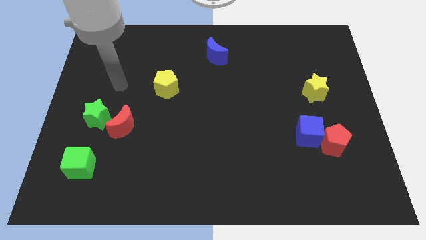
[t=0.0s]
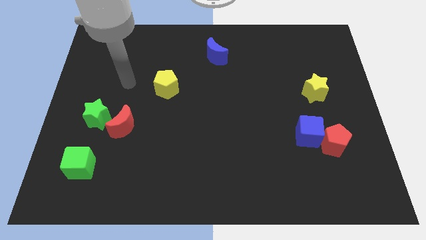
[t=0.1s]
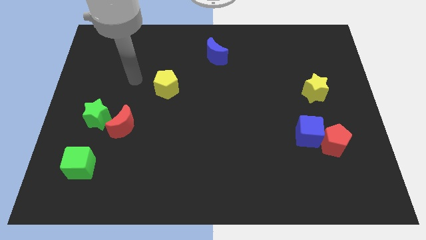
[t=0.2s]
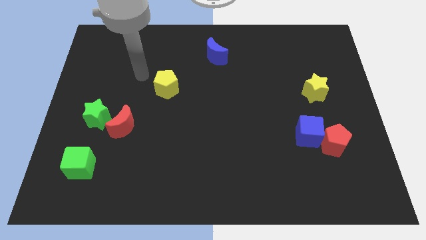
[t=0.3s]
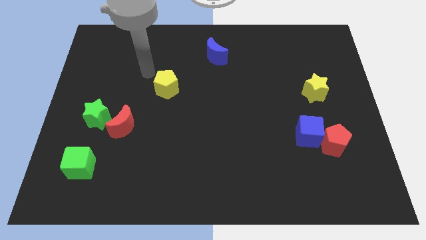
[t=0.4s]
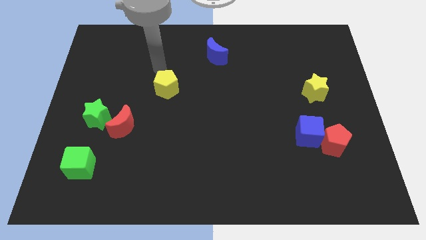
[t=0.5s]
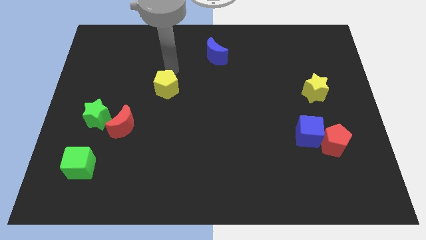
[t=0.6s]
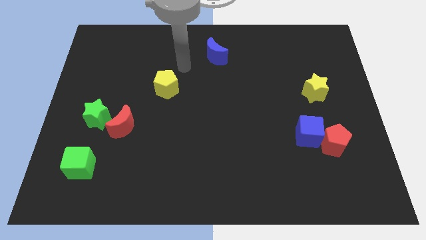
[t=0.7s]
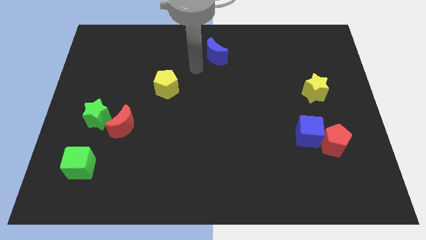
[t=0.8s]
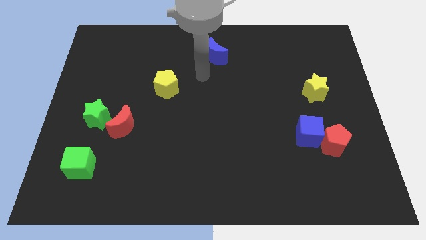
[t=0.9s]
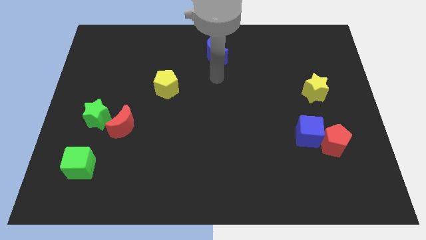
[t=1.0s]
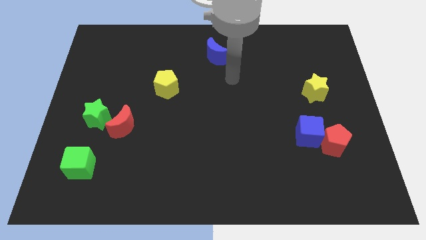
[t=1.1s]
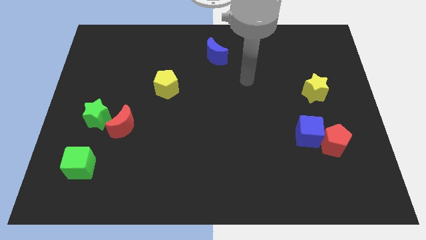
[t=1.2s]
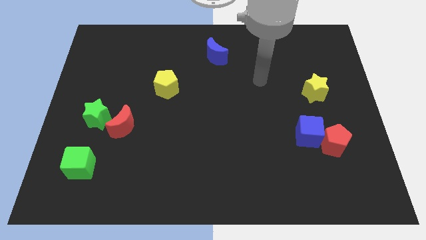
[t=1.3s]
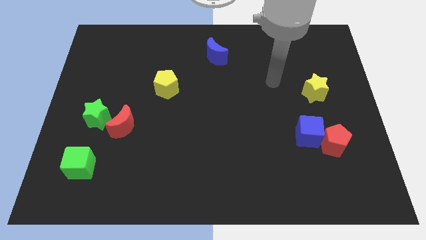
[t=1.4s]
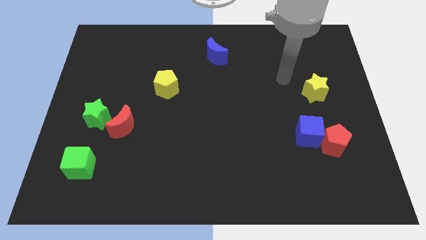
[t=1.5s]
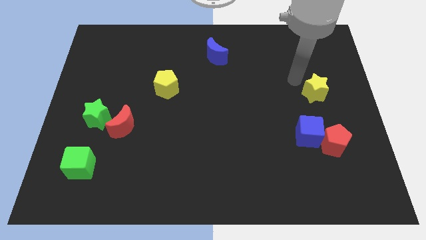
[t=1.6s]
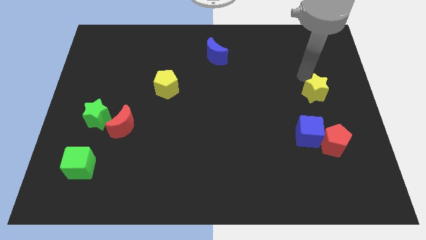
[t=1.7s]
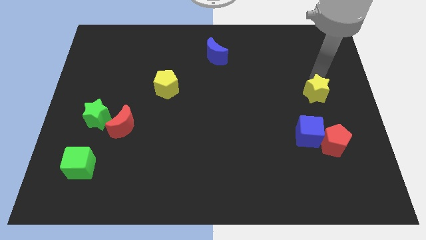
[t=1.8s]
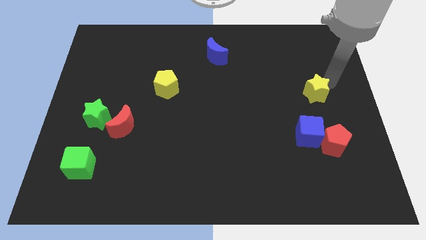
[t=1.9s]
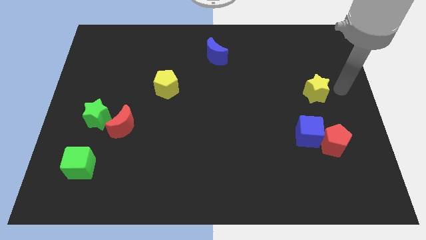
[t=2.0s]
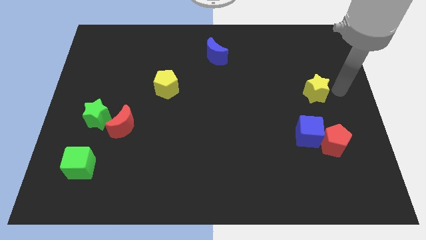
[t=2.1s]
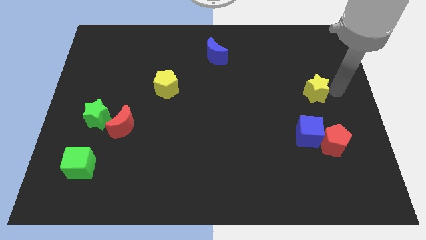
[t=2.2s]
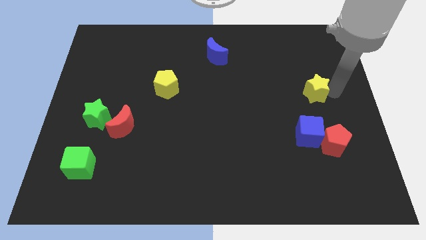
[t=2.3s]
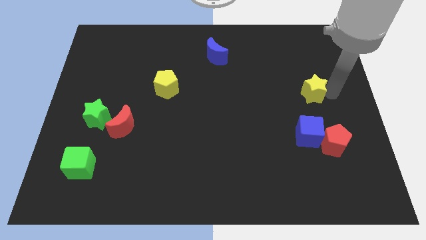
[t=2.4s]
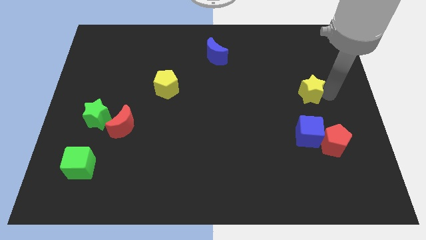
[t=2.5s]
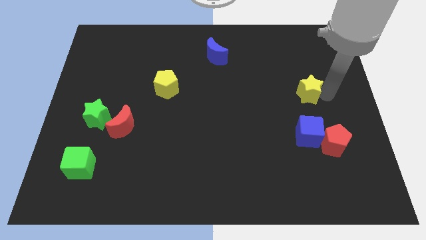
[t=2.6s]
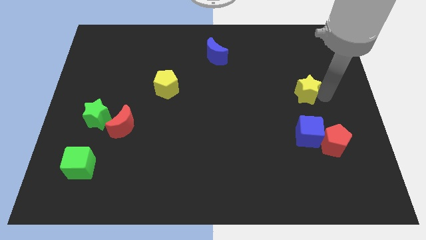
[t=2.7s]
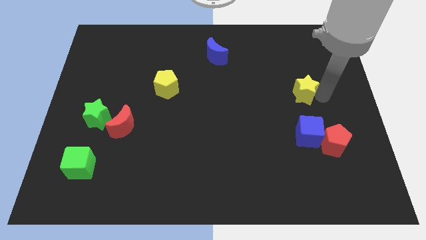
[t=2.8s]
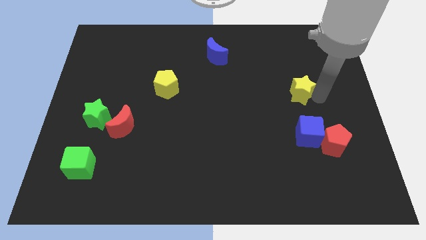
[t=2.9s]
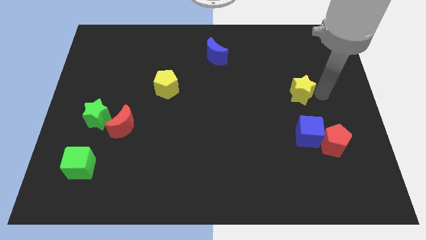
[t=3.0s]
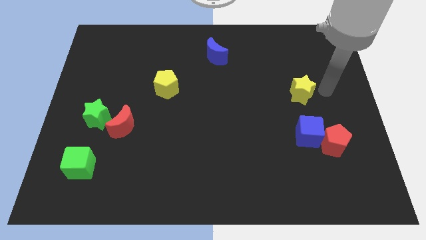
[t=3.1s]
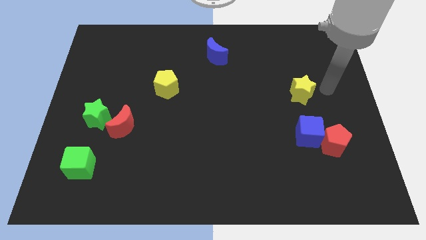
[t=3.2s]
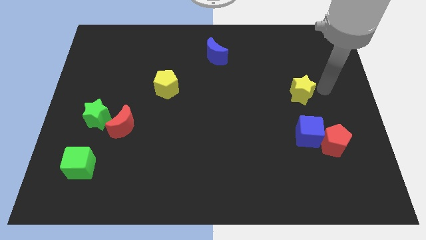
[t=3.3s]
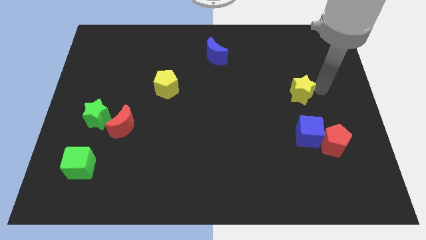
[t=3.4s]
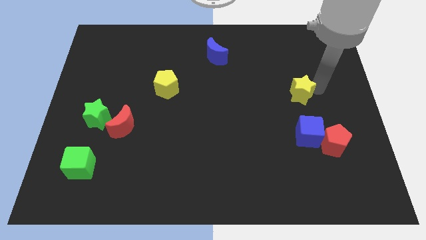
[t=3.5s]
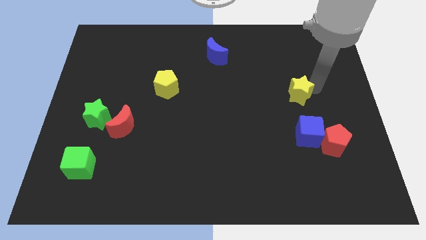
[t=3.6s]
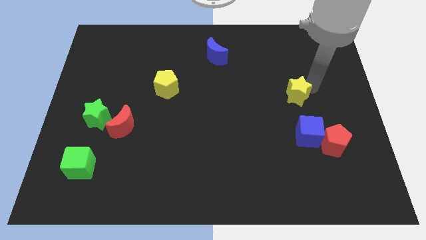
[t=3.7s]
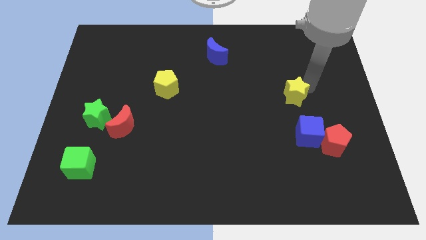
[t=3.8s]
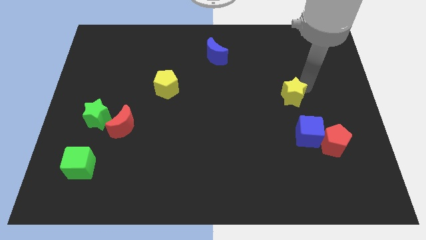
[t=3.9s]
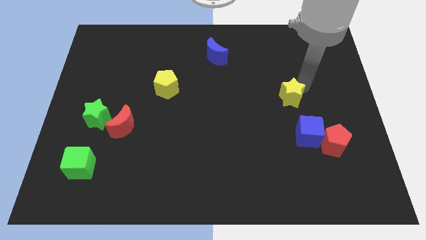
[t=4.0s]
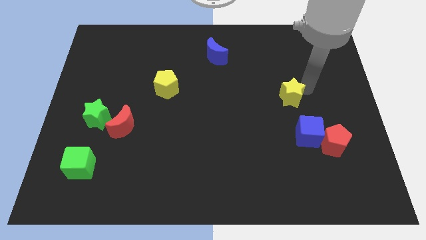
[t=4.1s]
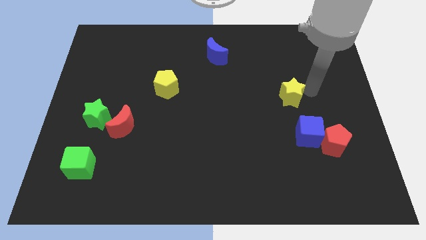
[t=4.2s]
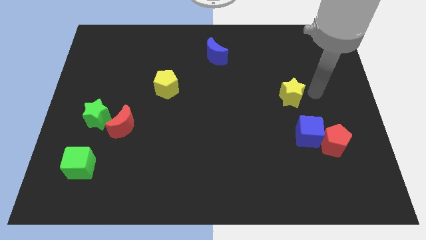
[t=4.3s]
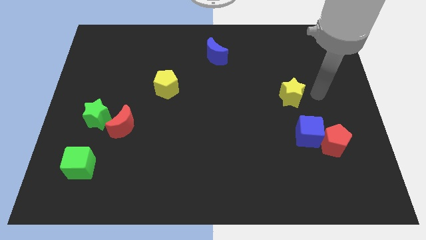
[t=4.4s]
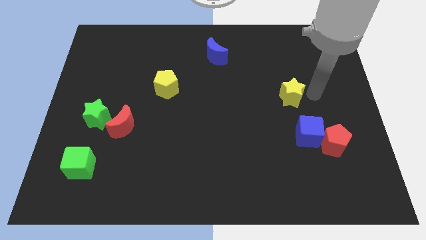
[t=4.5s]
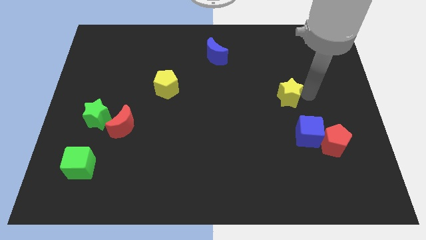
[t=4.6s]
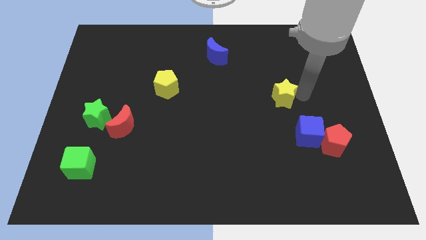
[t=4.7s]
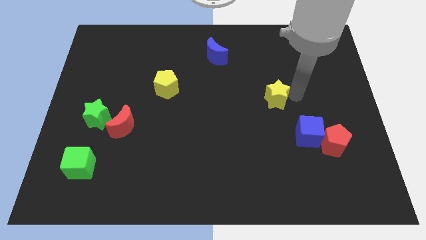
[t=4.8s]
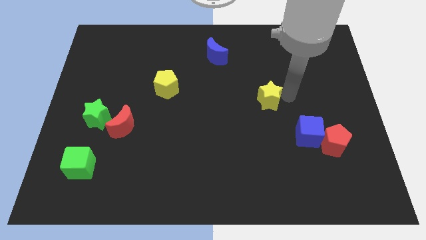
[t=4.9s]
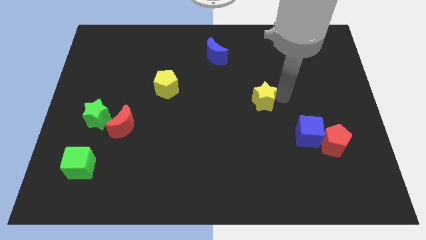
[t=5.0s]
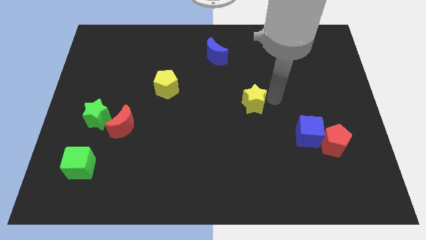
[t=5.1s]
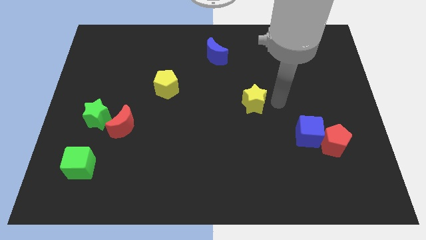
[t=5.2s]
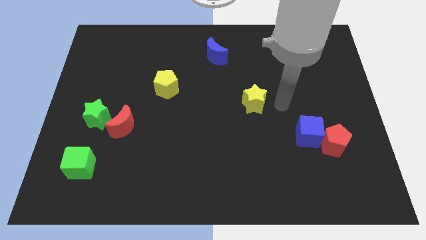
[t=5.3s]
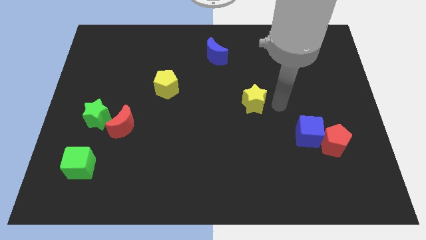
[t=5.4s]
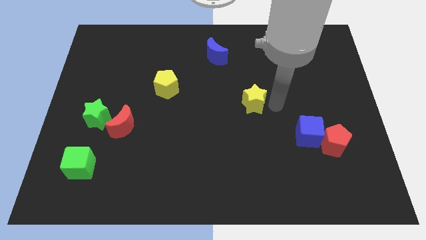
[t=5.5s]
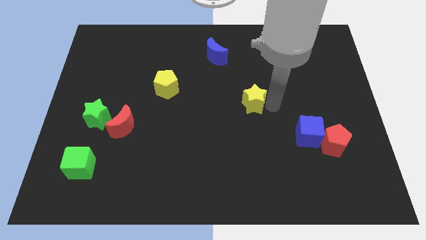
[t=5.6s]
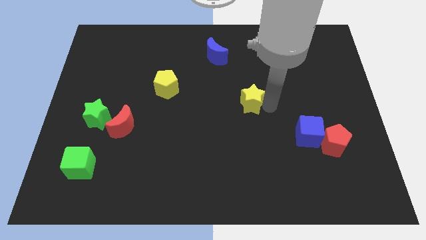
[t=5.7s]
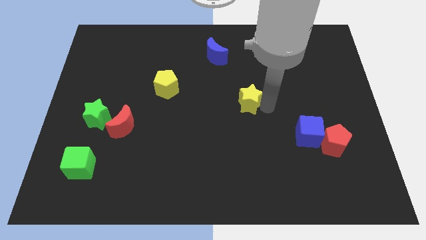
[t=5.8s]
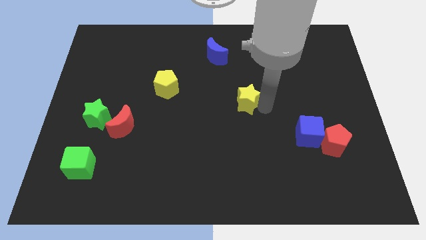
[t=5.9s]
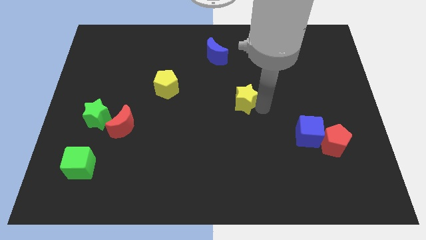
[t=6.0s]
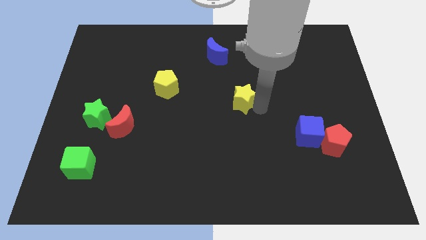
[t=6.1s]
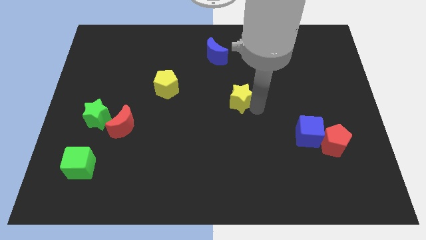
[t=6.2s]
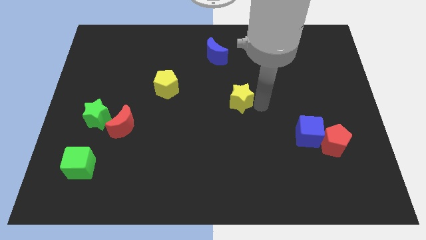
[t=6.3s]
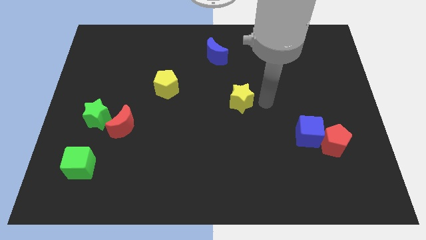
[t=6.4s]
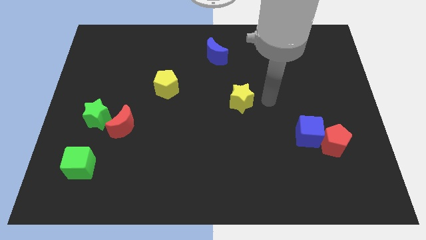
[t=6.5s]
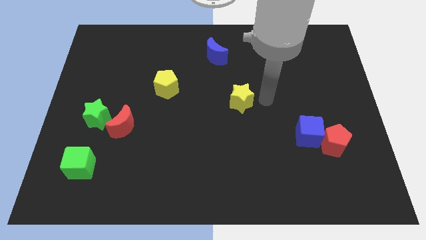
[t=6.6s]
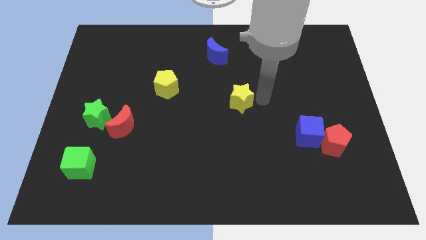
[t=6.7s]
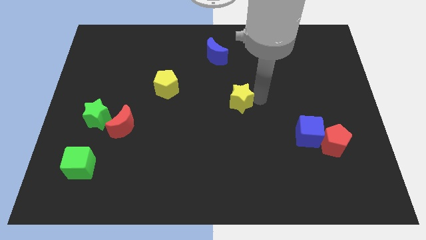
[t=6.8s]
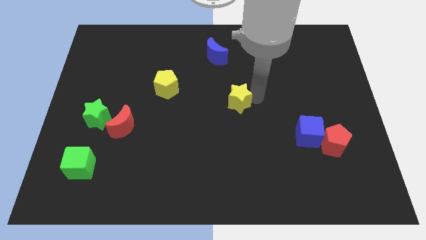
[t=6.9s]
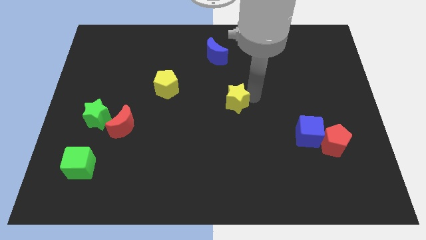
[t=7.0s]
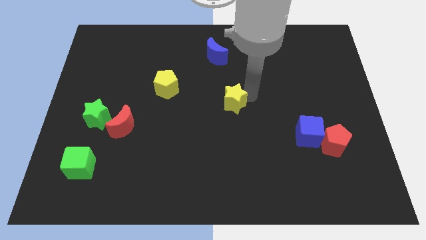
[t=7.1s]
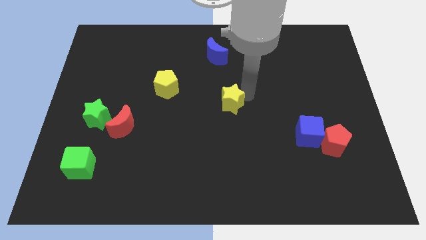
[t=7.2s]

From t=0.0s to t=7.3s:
push the yellow star to the left

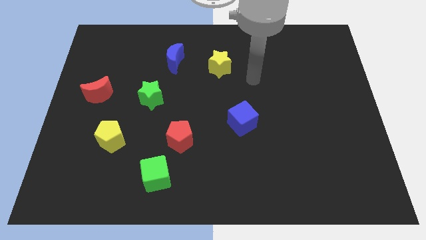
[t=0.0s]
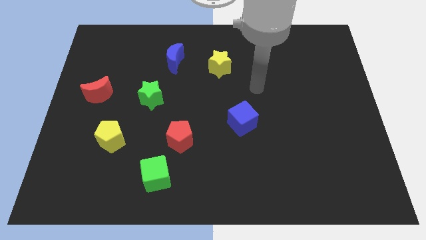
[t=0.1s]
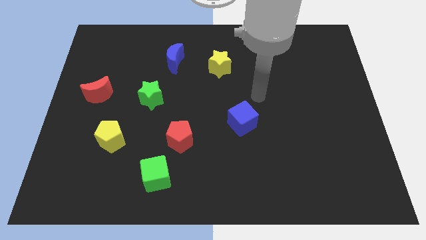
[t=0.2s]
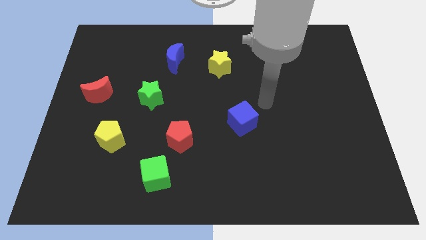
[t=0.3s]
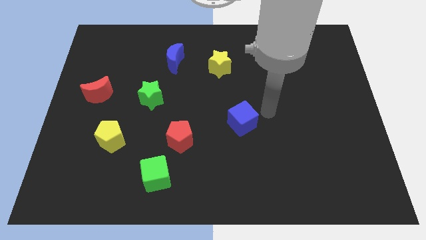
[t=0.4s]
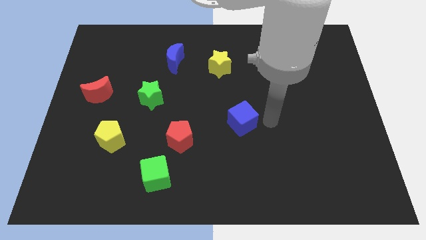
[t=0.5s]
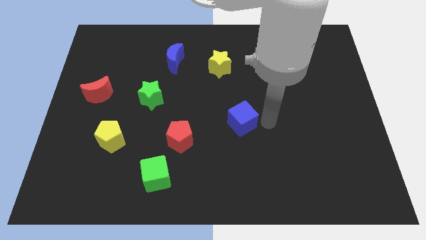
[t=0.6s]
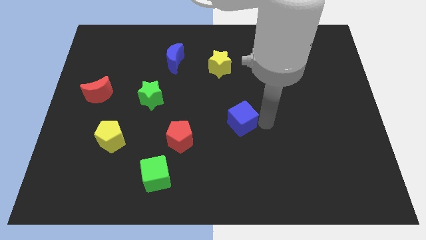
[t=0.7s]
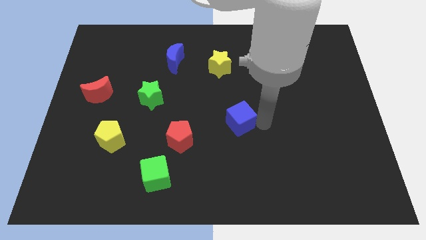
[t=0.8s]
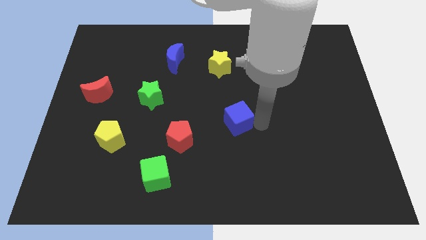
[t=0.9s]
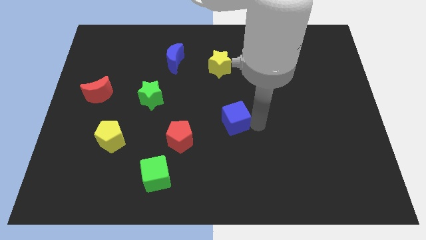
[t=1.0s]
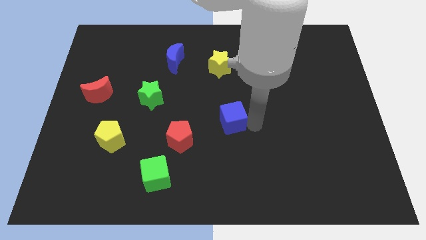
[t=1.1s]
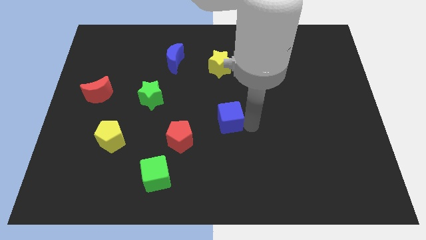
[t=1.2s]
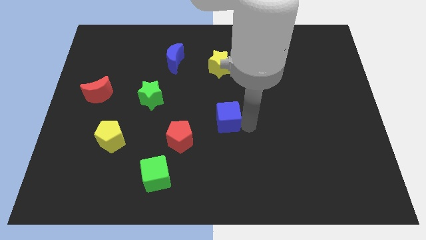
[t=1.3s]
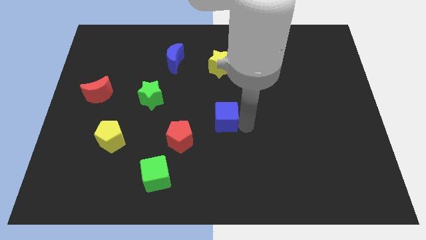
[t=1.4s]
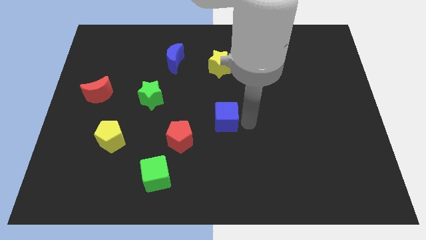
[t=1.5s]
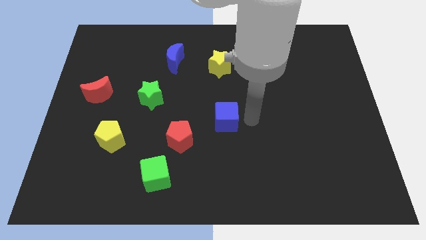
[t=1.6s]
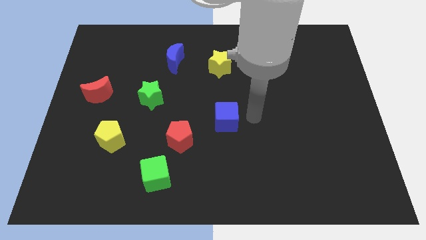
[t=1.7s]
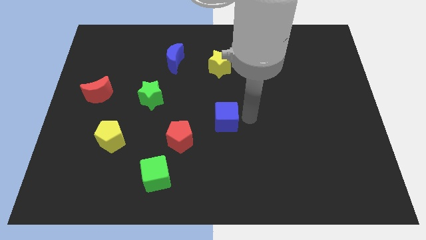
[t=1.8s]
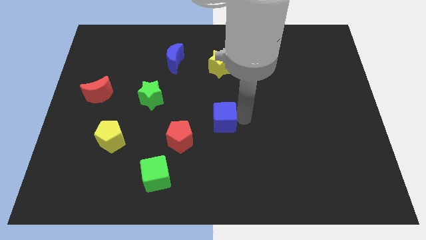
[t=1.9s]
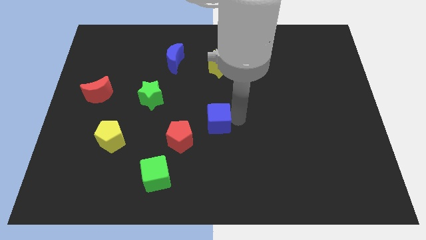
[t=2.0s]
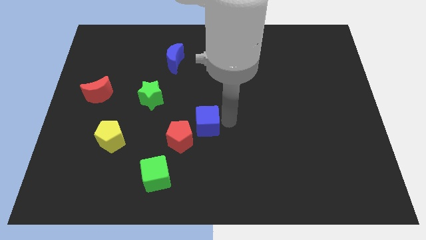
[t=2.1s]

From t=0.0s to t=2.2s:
slightly push the blue cube left
